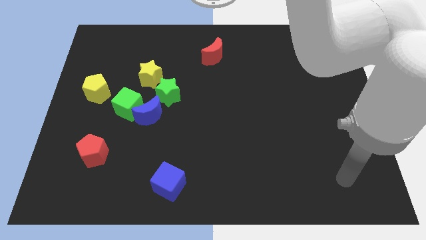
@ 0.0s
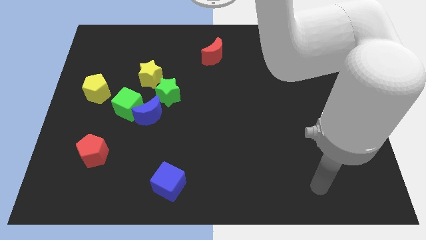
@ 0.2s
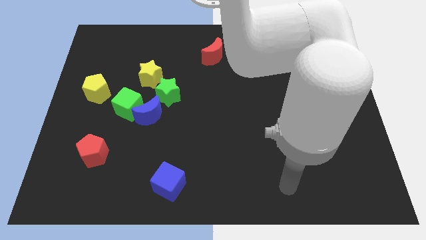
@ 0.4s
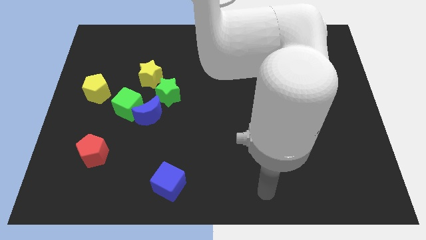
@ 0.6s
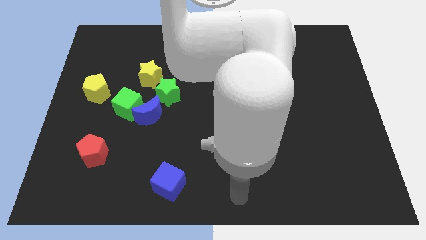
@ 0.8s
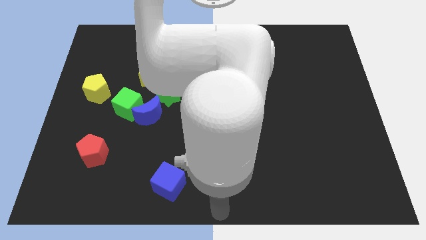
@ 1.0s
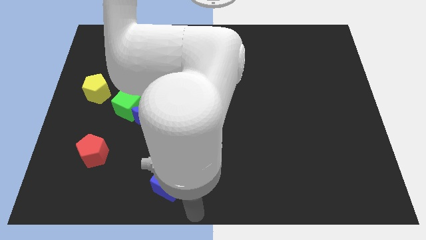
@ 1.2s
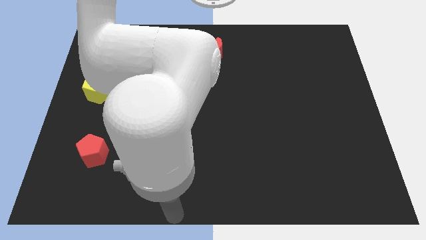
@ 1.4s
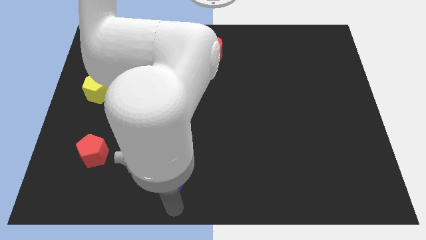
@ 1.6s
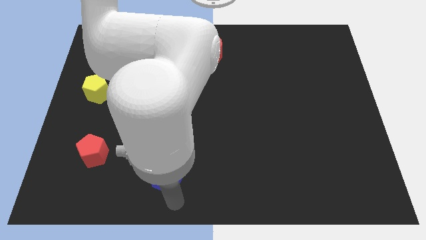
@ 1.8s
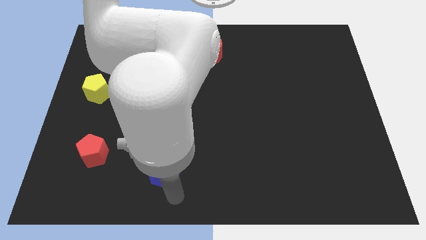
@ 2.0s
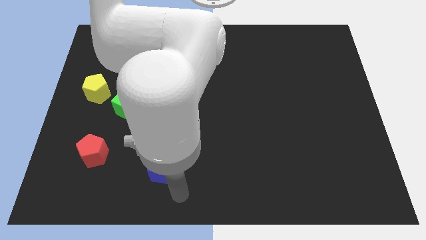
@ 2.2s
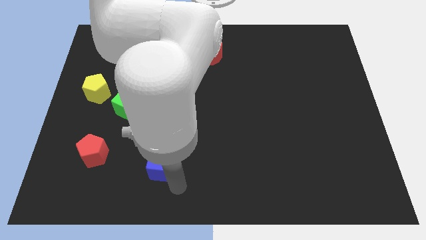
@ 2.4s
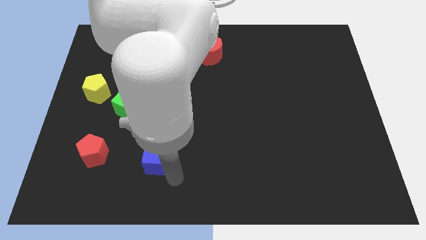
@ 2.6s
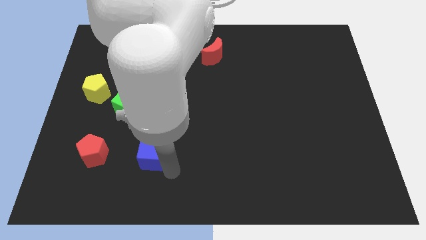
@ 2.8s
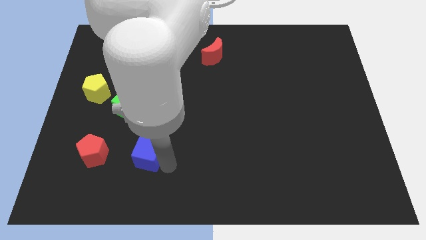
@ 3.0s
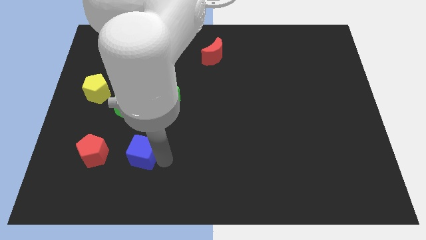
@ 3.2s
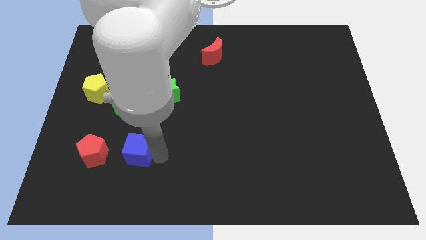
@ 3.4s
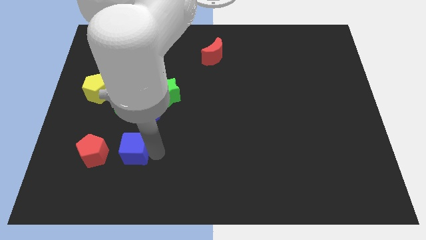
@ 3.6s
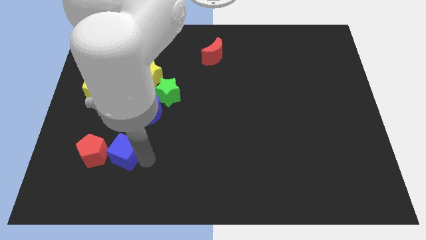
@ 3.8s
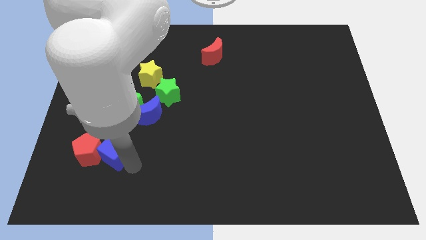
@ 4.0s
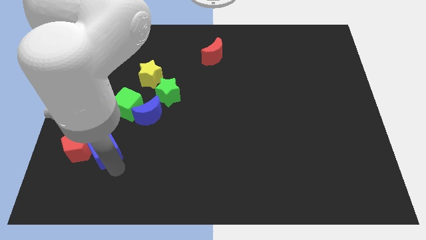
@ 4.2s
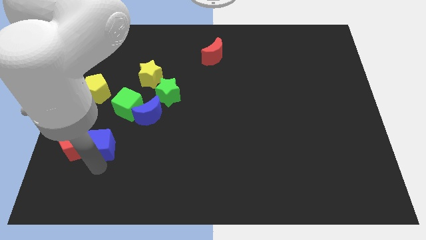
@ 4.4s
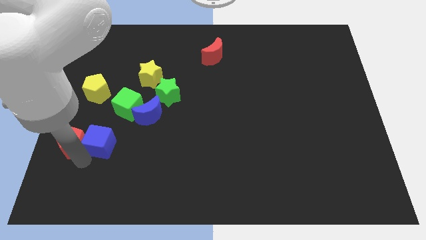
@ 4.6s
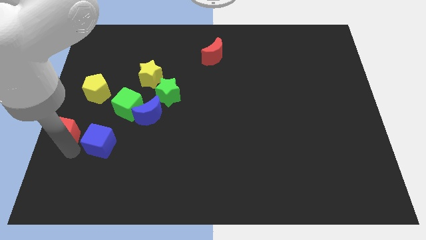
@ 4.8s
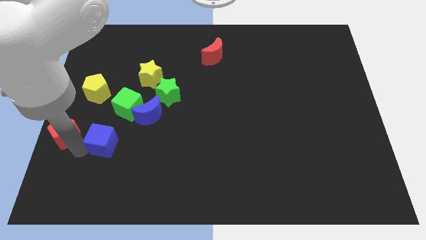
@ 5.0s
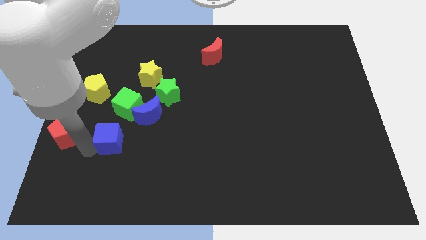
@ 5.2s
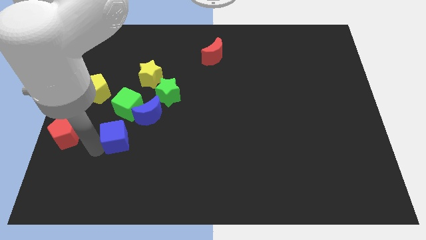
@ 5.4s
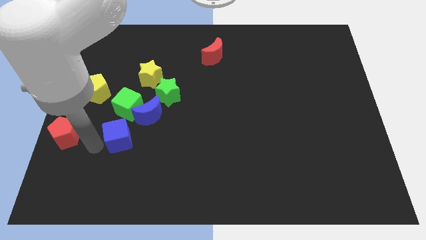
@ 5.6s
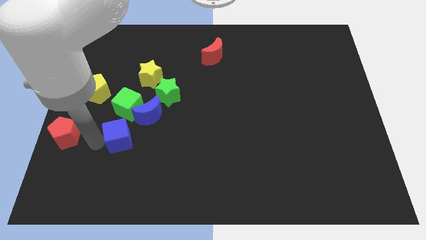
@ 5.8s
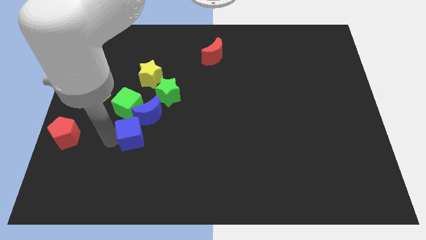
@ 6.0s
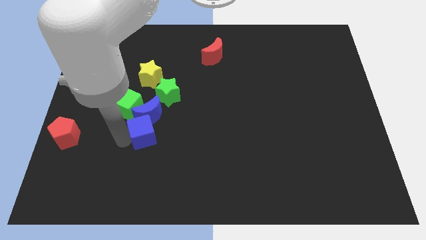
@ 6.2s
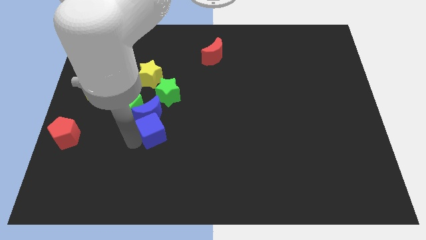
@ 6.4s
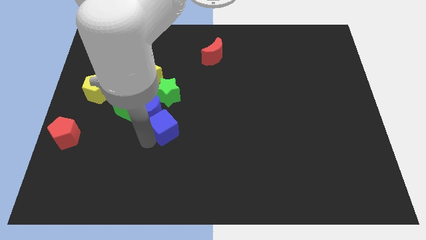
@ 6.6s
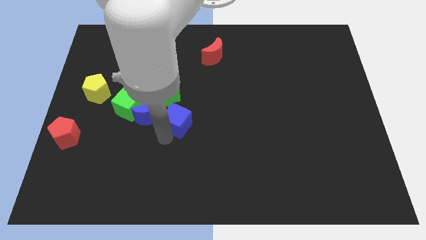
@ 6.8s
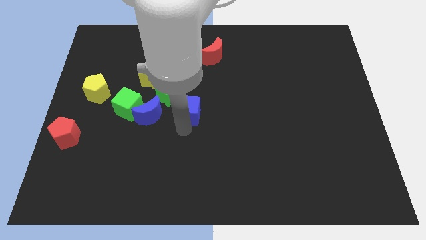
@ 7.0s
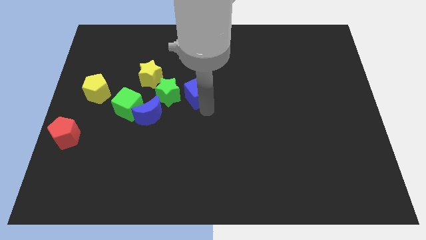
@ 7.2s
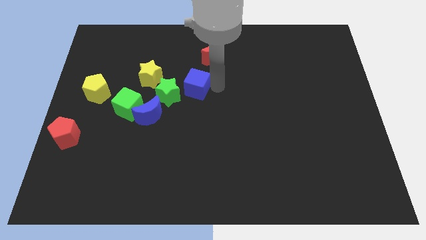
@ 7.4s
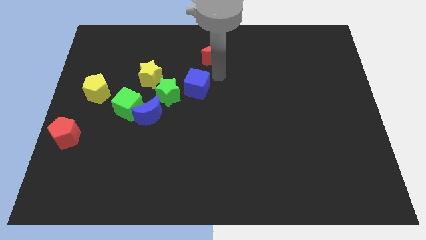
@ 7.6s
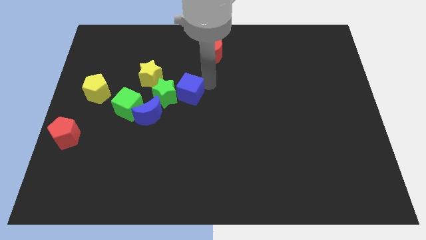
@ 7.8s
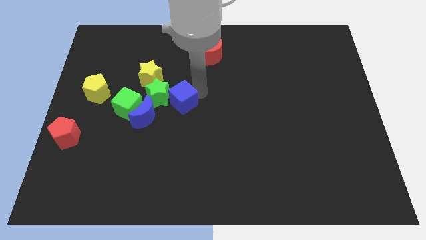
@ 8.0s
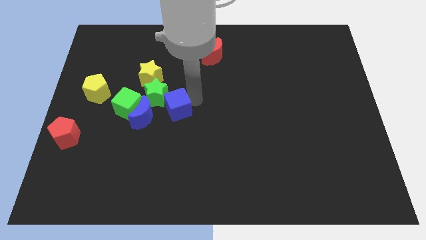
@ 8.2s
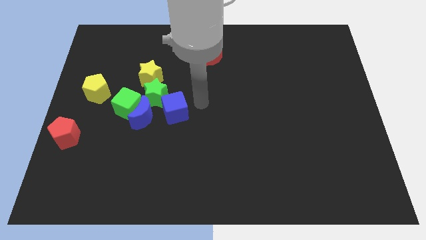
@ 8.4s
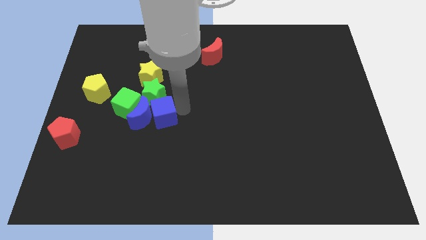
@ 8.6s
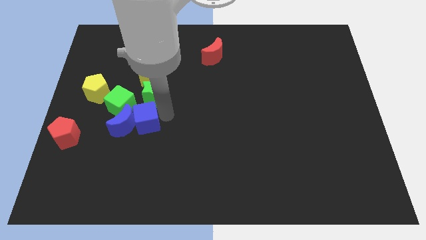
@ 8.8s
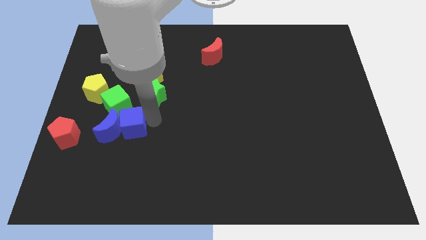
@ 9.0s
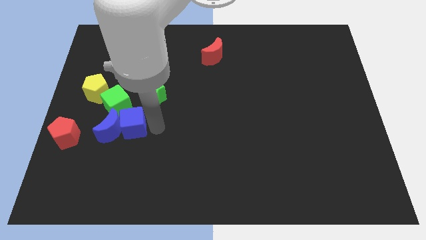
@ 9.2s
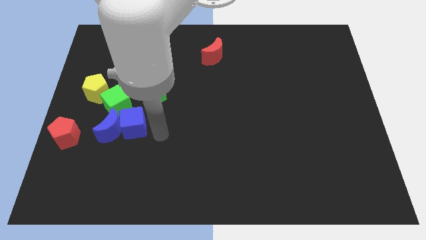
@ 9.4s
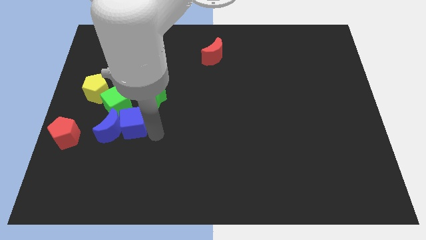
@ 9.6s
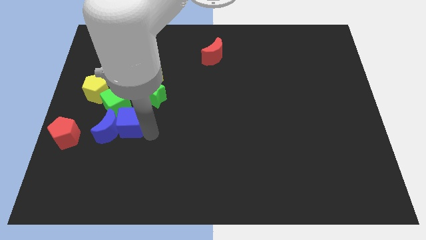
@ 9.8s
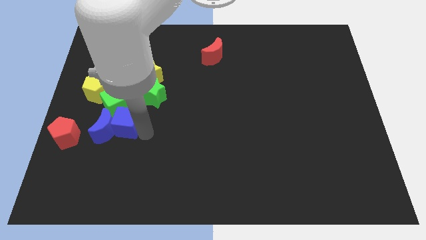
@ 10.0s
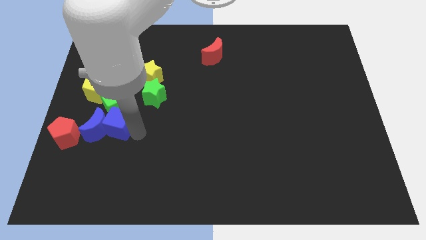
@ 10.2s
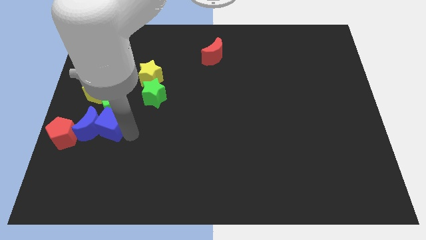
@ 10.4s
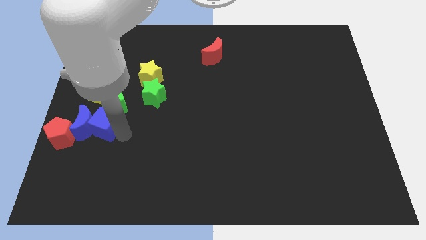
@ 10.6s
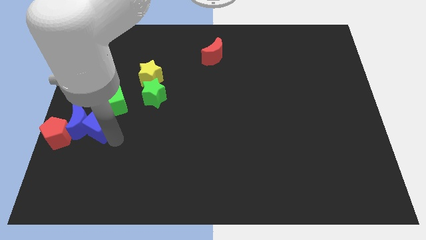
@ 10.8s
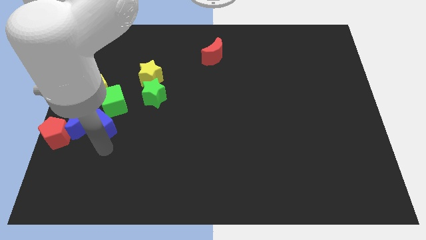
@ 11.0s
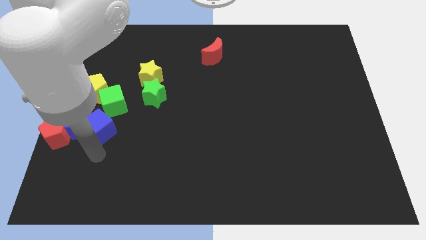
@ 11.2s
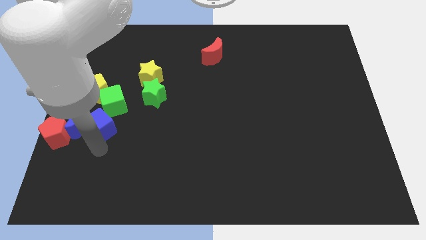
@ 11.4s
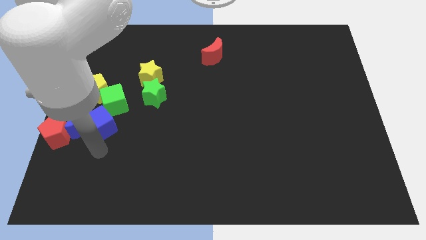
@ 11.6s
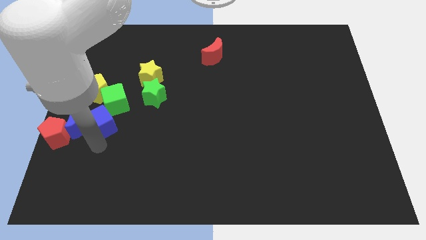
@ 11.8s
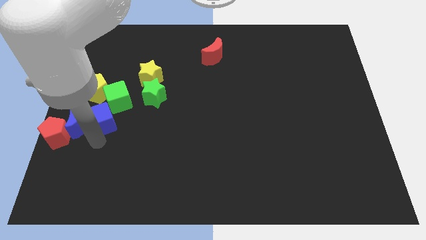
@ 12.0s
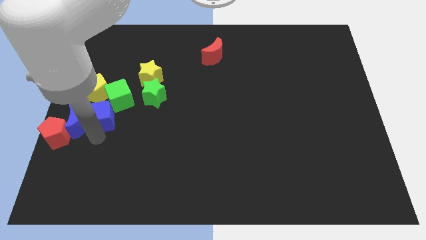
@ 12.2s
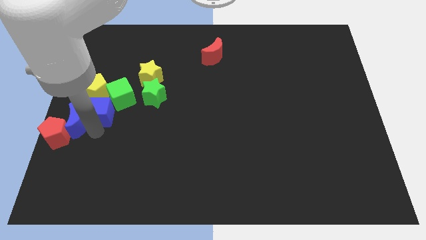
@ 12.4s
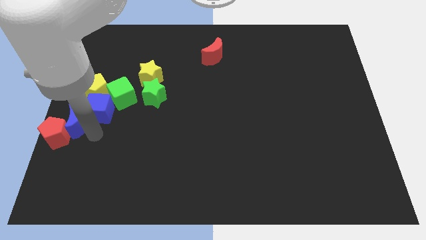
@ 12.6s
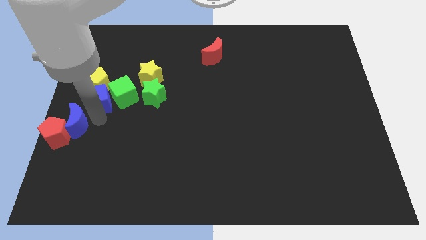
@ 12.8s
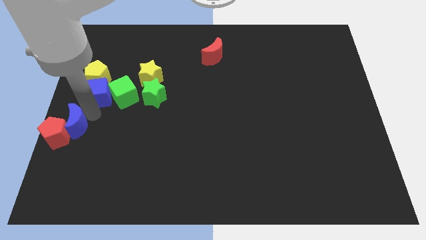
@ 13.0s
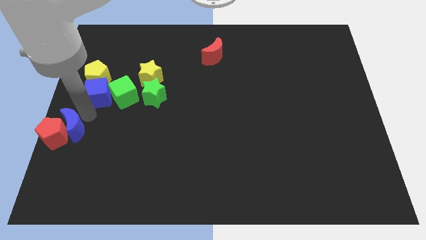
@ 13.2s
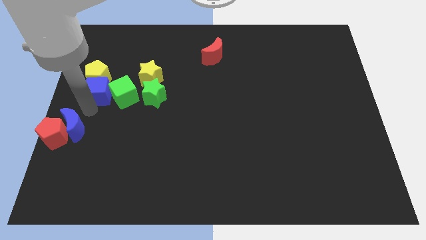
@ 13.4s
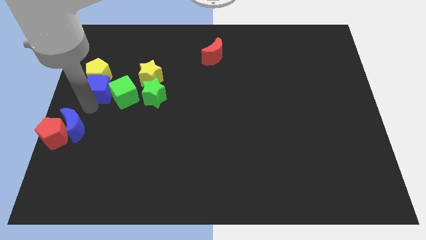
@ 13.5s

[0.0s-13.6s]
slide the blue cube left of the yellow star

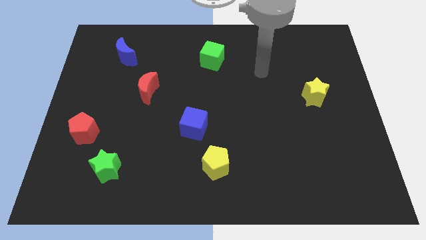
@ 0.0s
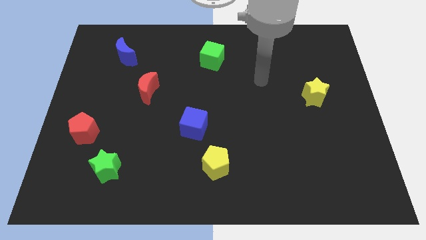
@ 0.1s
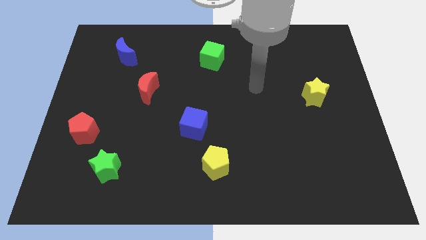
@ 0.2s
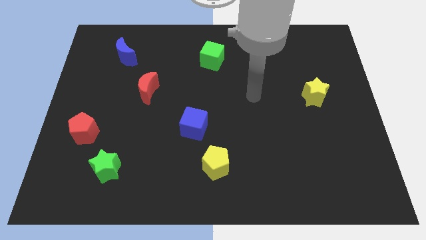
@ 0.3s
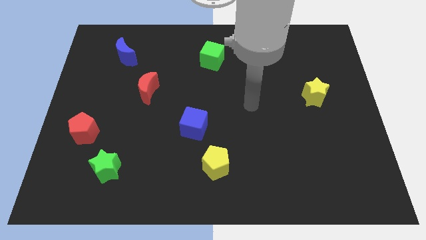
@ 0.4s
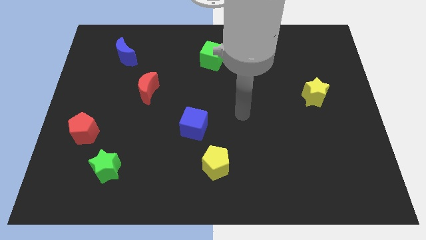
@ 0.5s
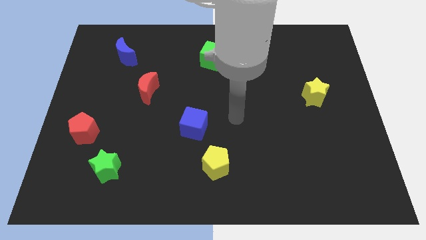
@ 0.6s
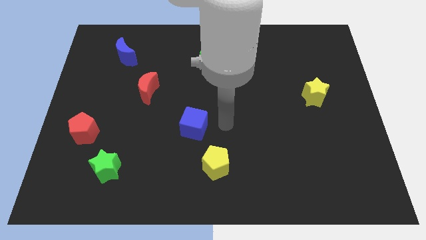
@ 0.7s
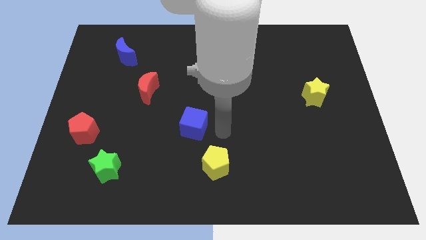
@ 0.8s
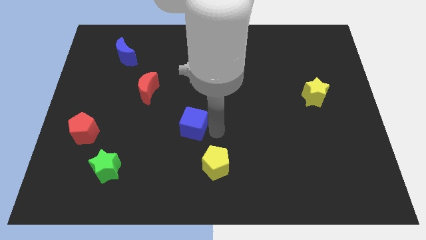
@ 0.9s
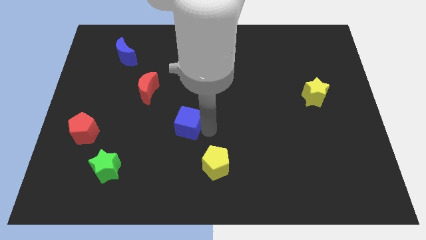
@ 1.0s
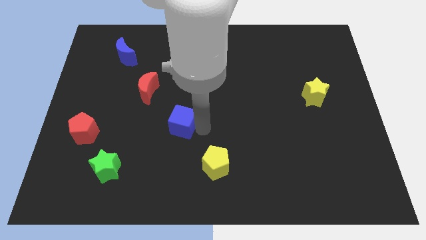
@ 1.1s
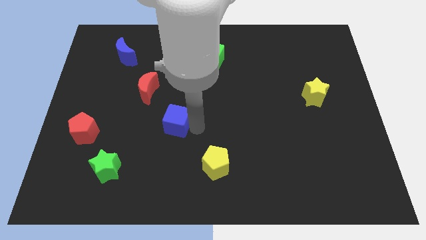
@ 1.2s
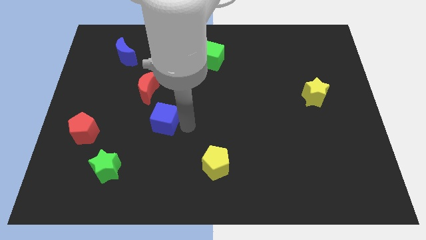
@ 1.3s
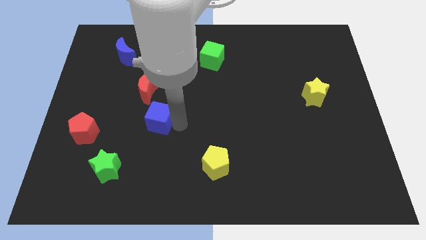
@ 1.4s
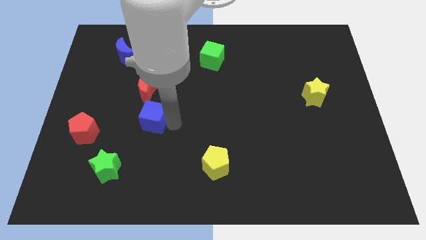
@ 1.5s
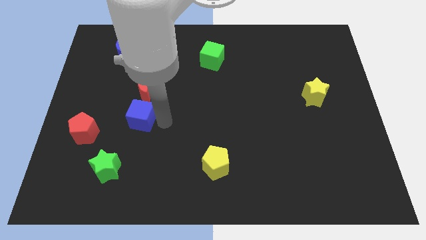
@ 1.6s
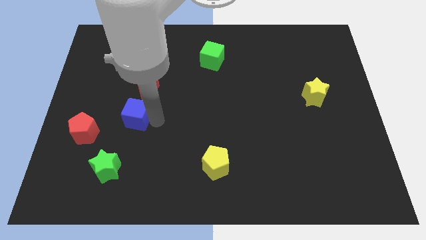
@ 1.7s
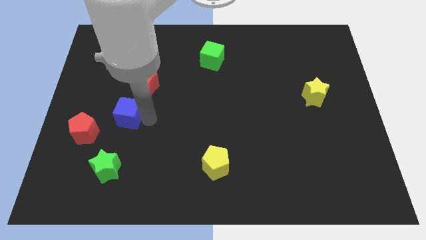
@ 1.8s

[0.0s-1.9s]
put the blue cube diagonally up and to the right of the red pentagon
